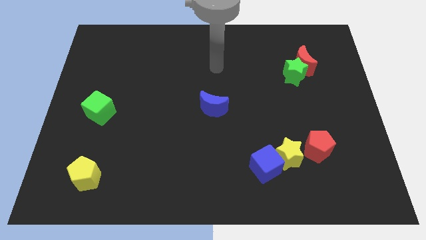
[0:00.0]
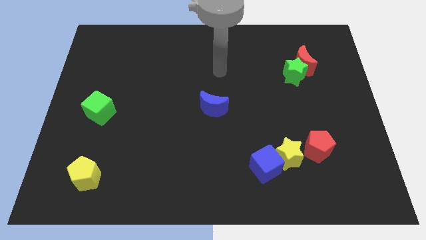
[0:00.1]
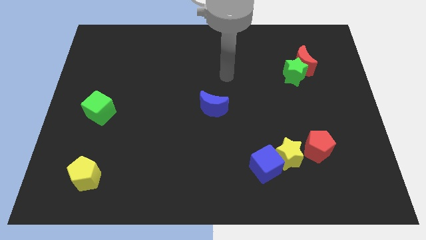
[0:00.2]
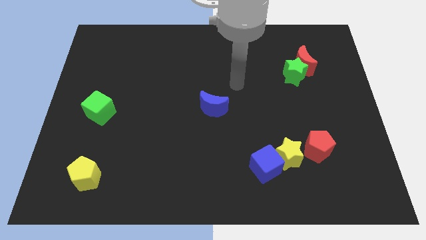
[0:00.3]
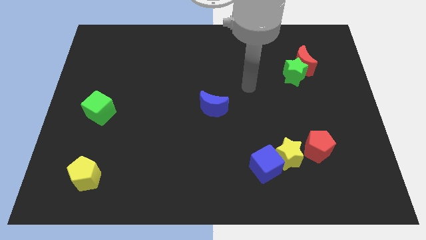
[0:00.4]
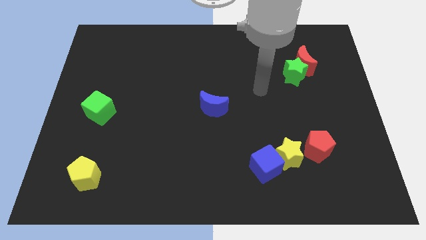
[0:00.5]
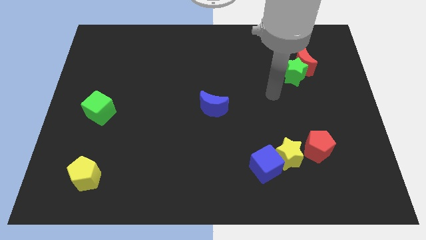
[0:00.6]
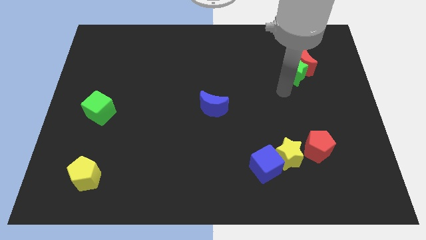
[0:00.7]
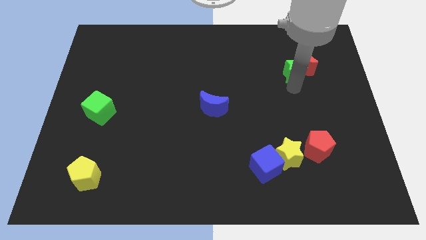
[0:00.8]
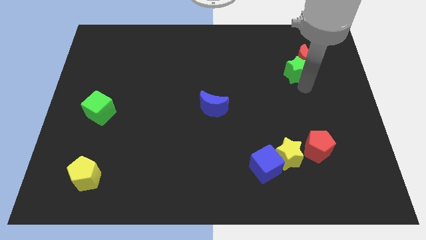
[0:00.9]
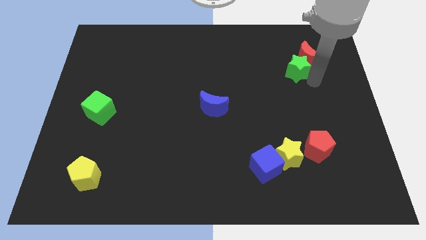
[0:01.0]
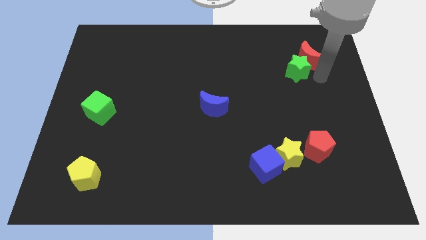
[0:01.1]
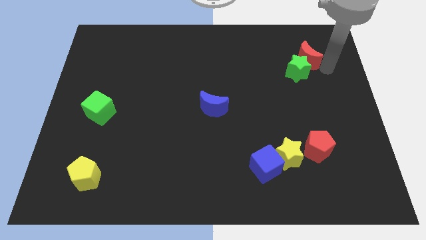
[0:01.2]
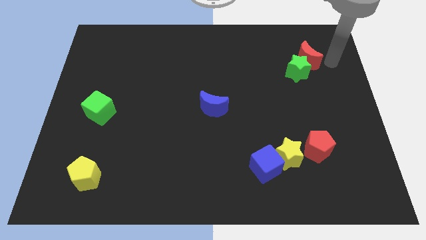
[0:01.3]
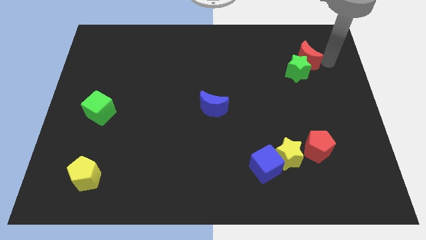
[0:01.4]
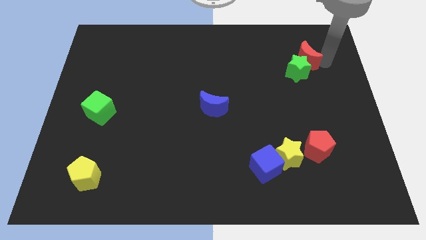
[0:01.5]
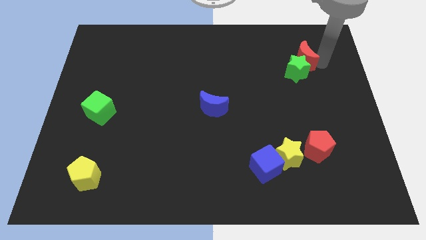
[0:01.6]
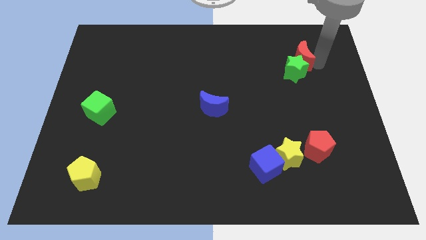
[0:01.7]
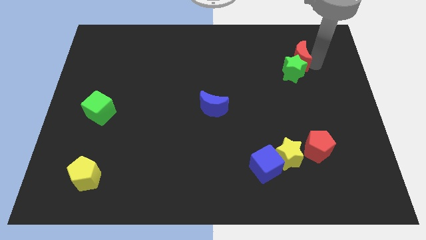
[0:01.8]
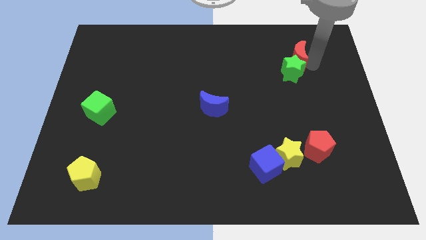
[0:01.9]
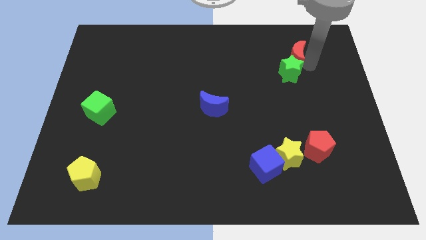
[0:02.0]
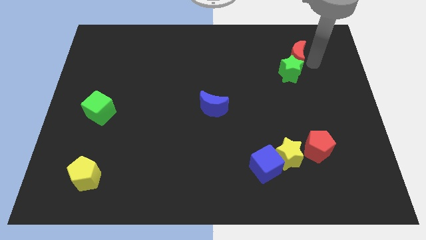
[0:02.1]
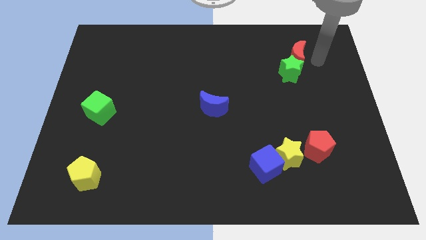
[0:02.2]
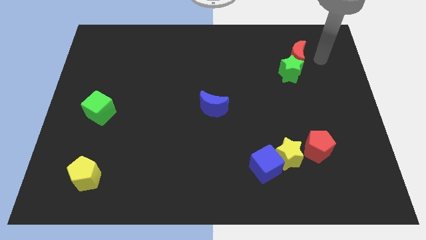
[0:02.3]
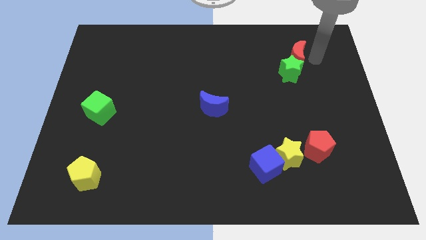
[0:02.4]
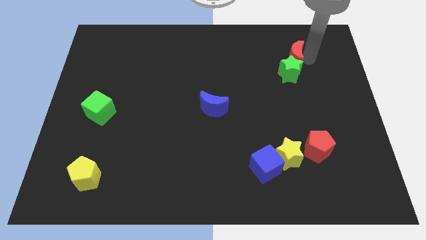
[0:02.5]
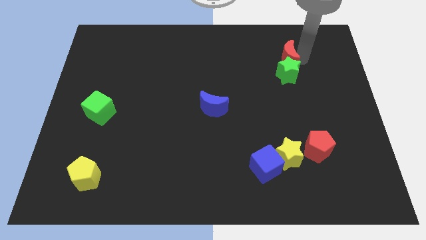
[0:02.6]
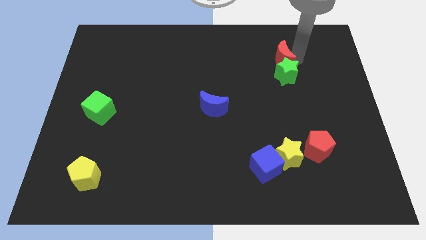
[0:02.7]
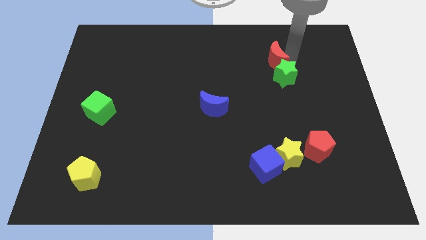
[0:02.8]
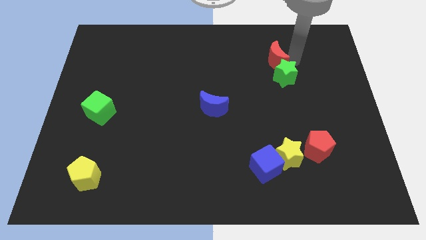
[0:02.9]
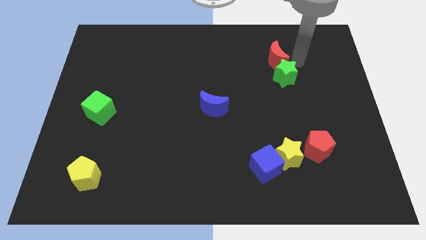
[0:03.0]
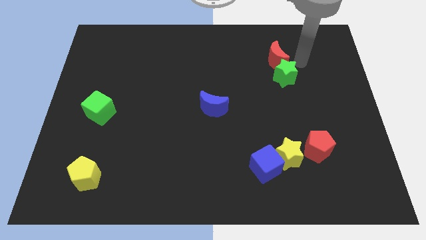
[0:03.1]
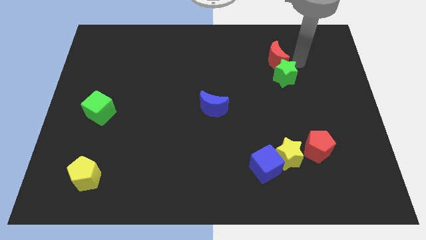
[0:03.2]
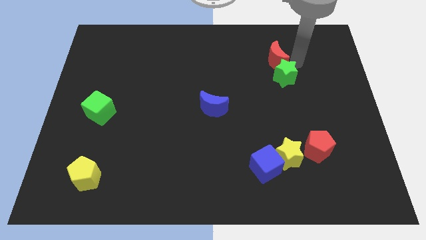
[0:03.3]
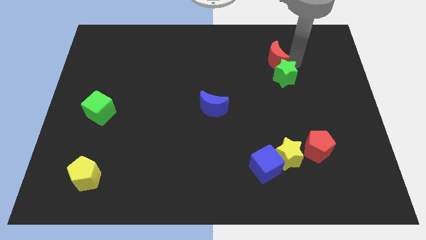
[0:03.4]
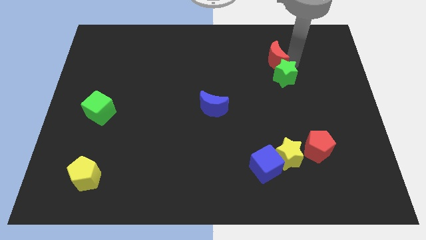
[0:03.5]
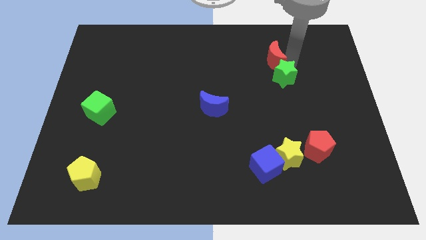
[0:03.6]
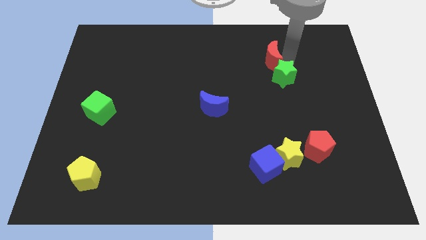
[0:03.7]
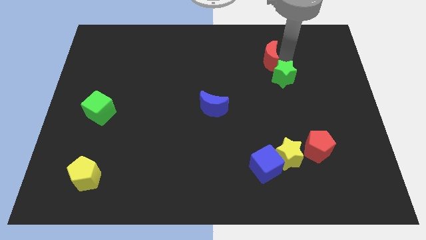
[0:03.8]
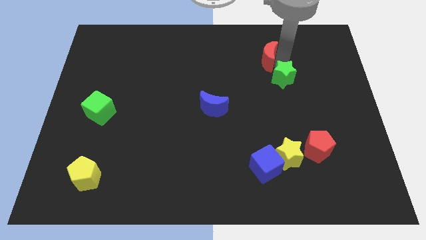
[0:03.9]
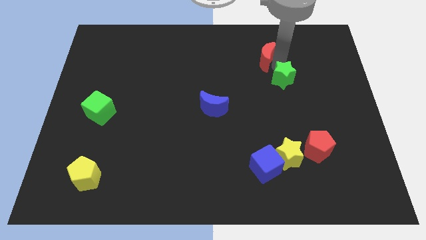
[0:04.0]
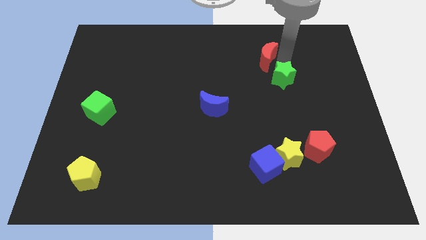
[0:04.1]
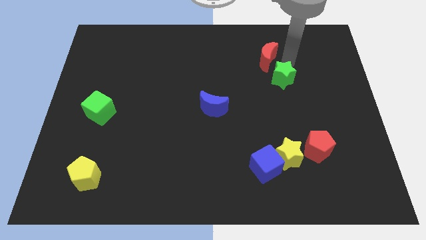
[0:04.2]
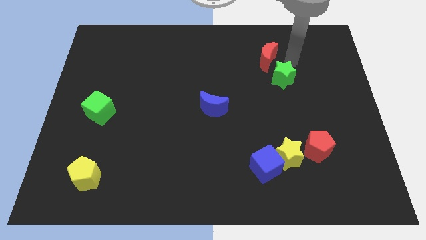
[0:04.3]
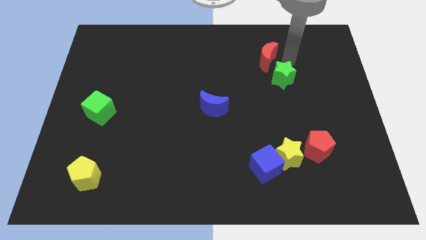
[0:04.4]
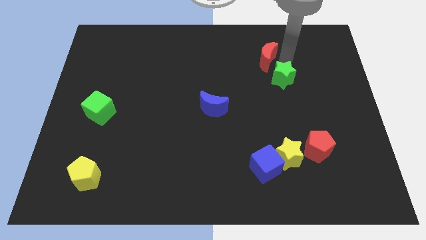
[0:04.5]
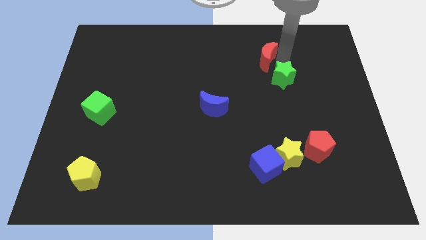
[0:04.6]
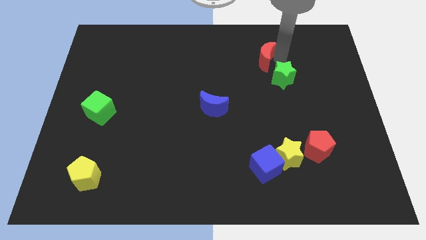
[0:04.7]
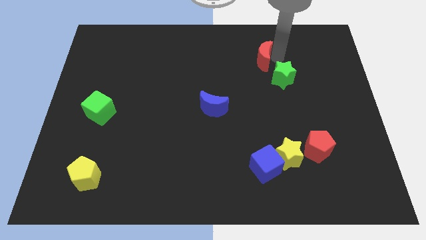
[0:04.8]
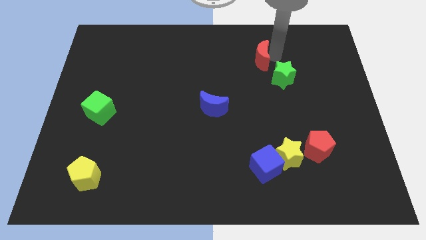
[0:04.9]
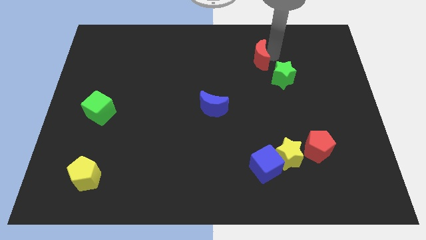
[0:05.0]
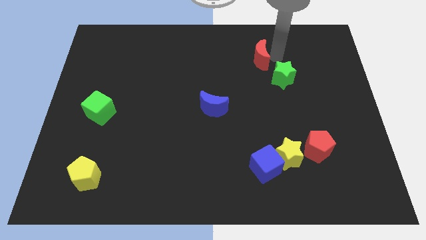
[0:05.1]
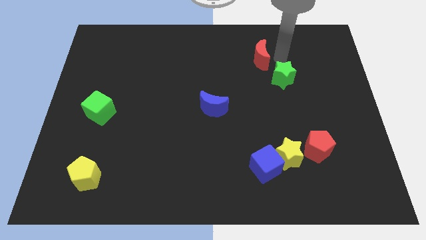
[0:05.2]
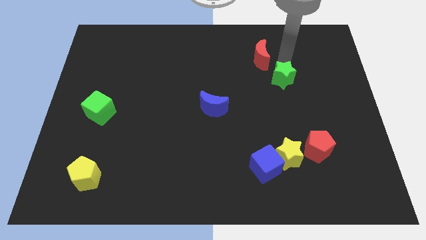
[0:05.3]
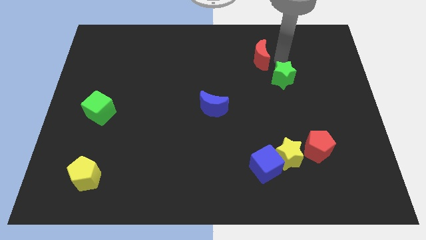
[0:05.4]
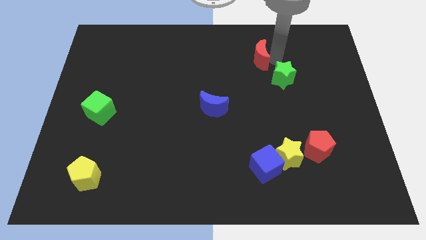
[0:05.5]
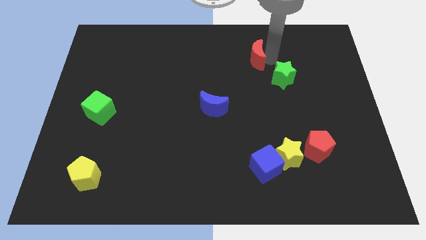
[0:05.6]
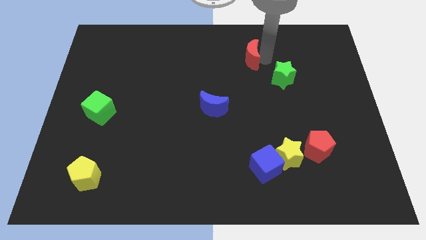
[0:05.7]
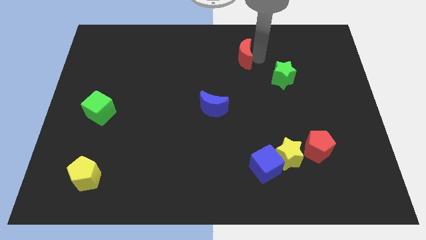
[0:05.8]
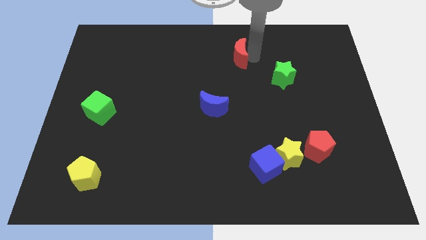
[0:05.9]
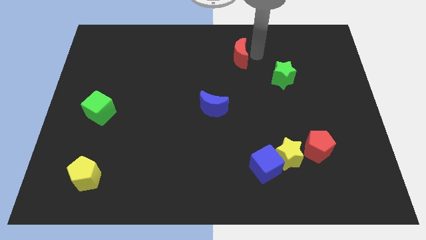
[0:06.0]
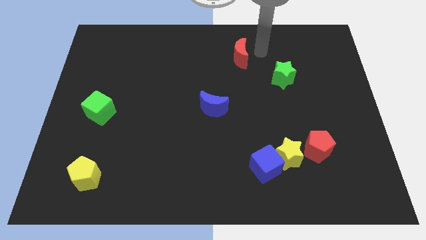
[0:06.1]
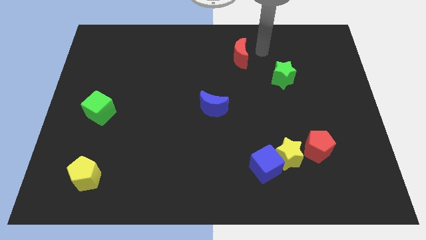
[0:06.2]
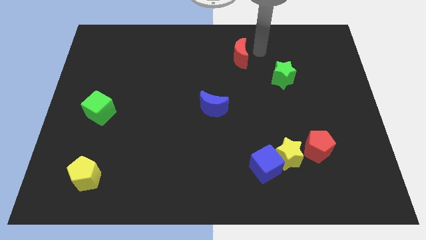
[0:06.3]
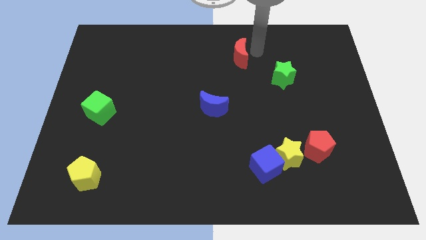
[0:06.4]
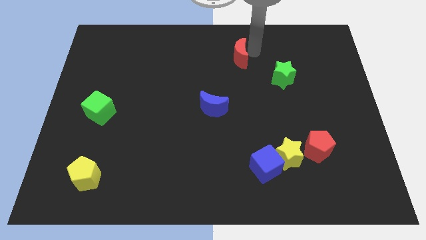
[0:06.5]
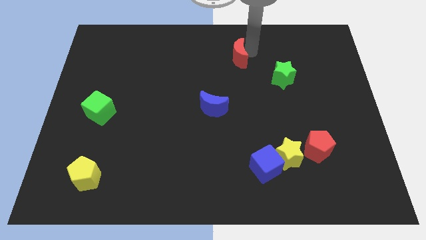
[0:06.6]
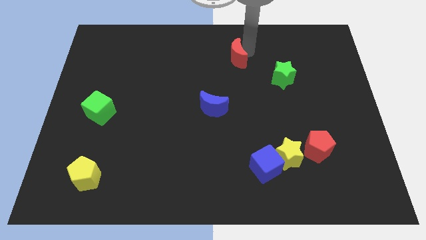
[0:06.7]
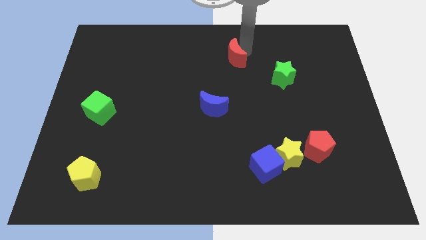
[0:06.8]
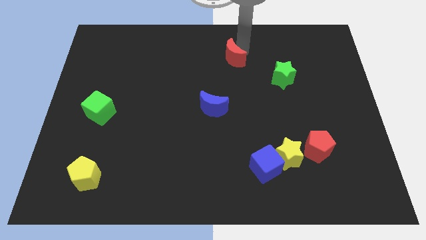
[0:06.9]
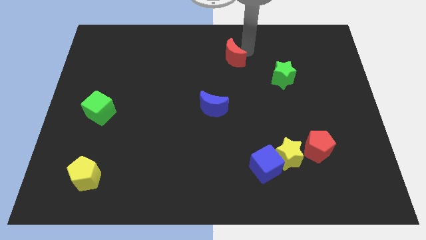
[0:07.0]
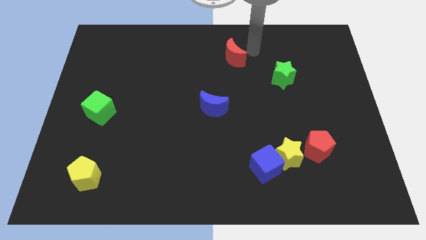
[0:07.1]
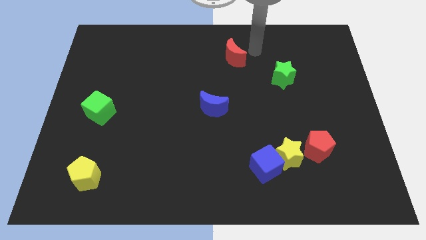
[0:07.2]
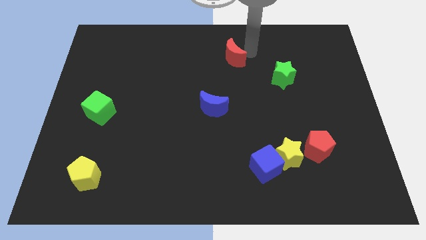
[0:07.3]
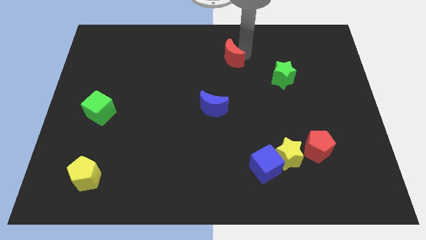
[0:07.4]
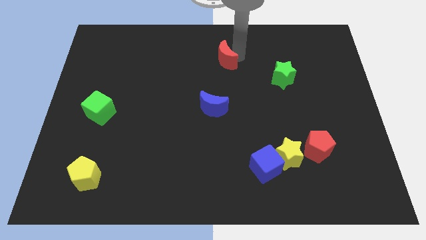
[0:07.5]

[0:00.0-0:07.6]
slide the red moon left

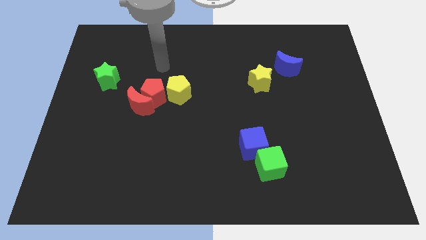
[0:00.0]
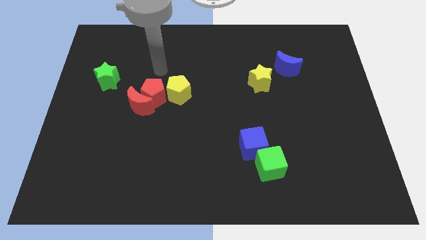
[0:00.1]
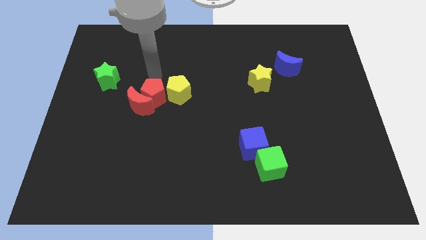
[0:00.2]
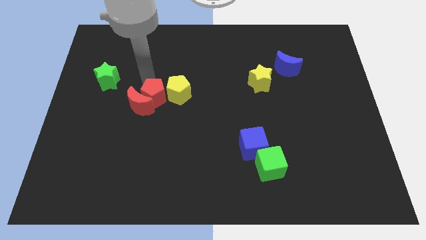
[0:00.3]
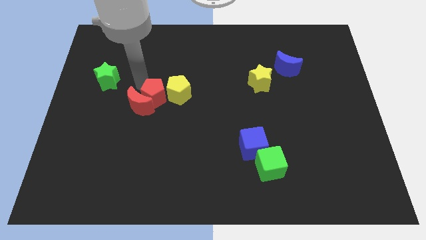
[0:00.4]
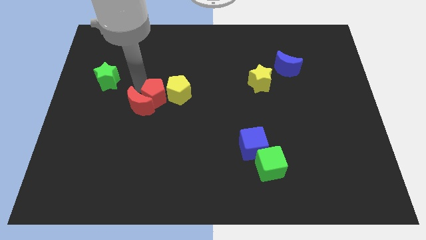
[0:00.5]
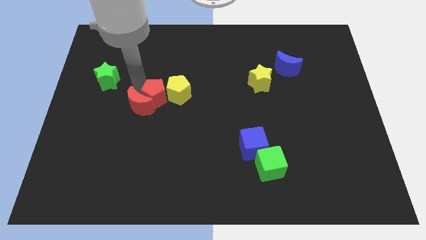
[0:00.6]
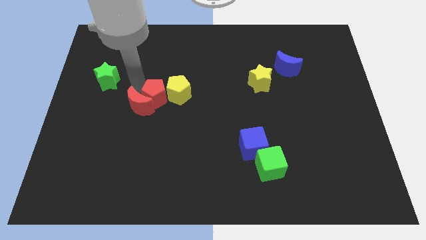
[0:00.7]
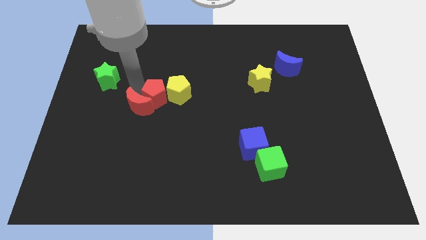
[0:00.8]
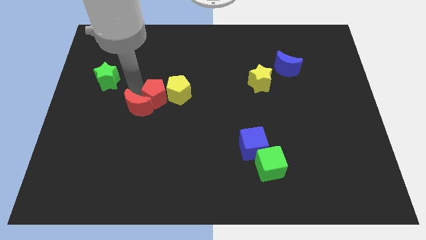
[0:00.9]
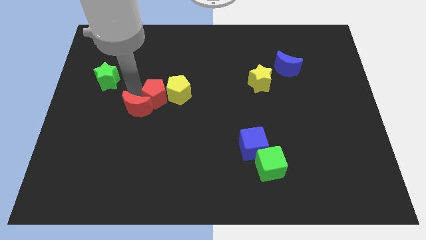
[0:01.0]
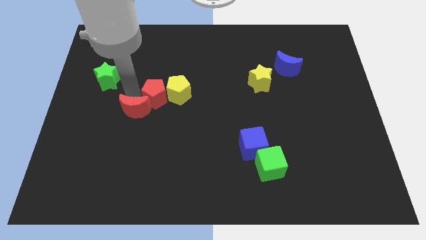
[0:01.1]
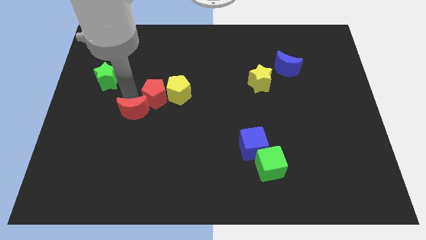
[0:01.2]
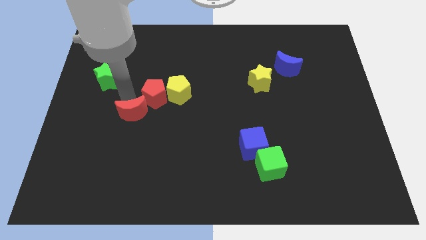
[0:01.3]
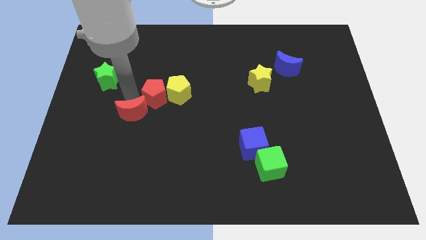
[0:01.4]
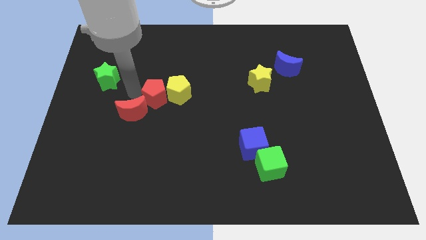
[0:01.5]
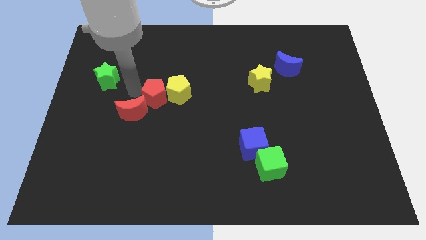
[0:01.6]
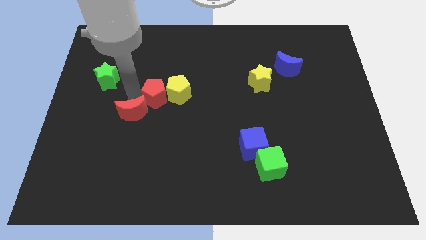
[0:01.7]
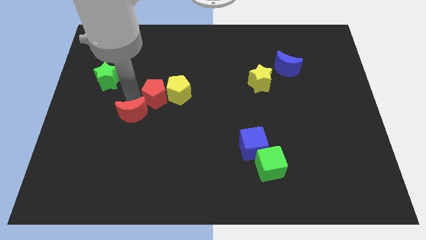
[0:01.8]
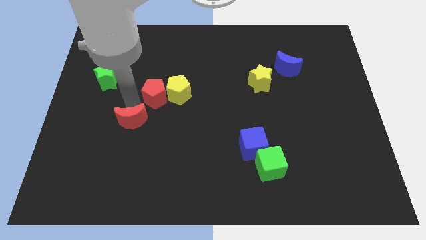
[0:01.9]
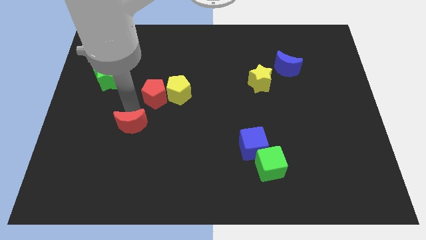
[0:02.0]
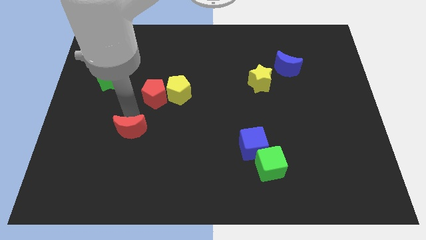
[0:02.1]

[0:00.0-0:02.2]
slightly move the red moon downwards
